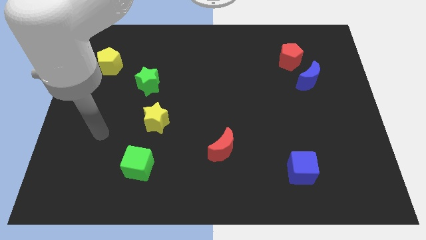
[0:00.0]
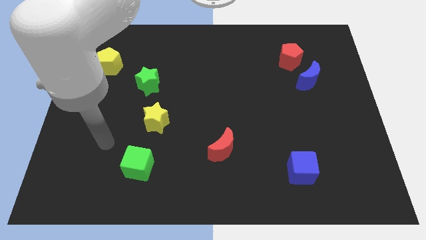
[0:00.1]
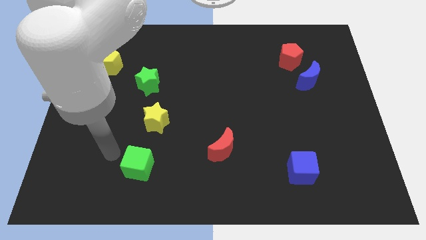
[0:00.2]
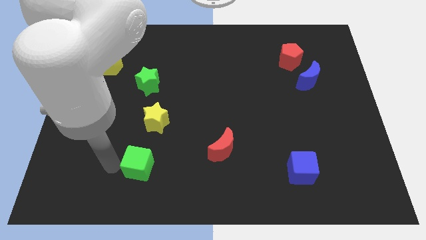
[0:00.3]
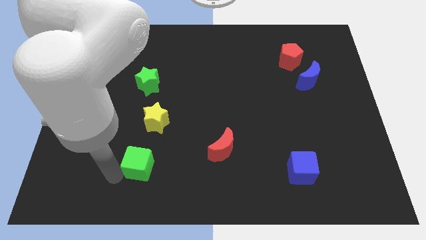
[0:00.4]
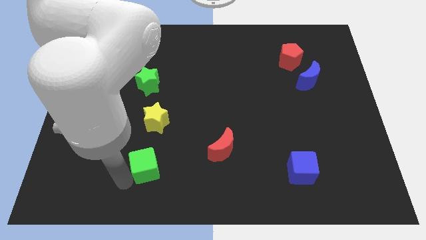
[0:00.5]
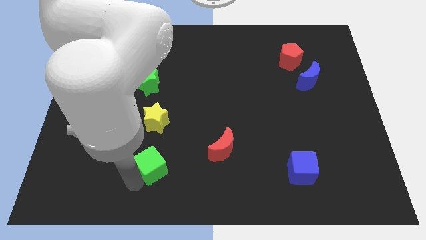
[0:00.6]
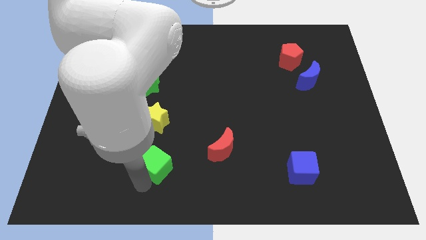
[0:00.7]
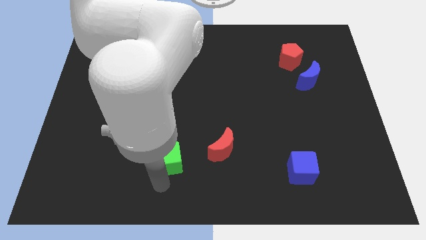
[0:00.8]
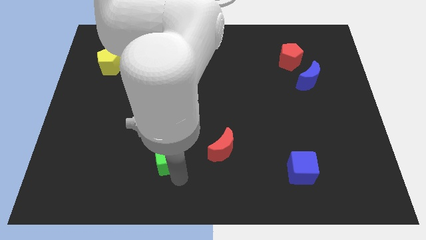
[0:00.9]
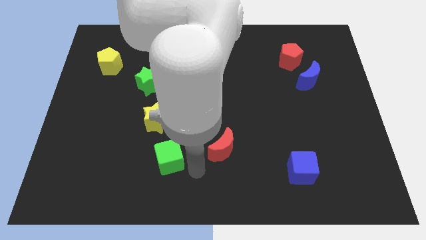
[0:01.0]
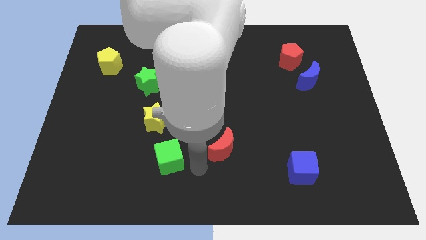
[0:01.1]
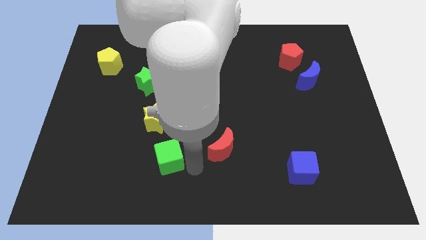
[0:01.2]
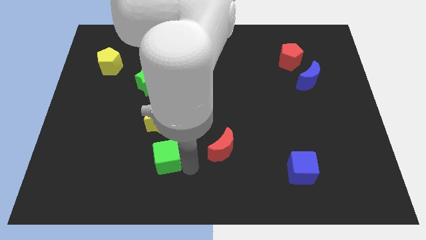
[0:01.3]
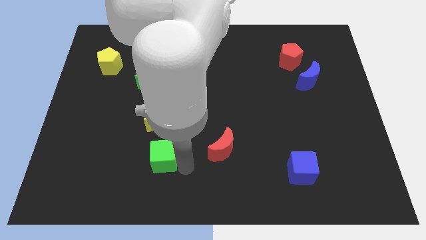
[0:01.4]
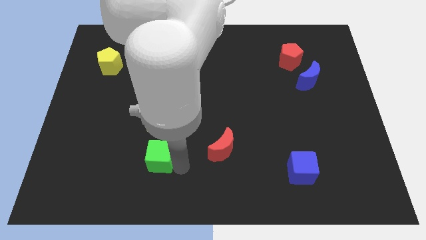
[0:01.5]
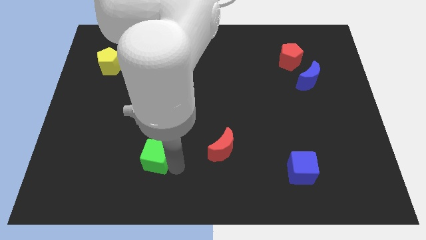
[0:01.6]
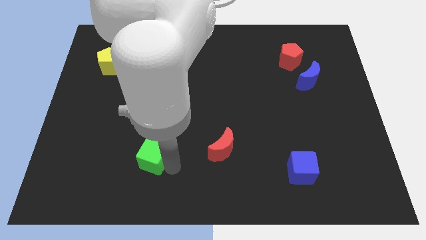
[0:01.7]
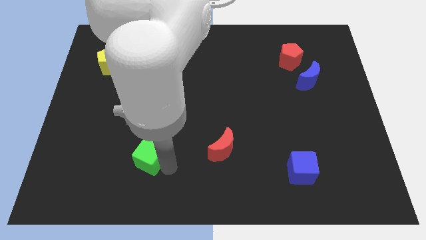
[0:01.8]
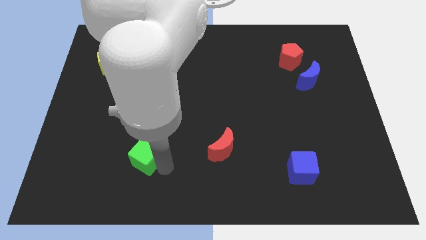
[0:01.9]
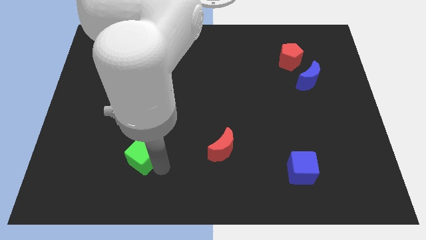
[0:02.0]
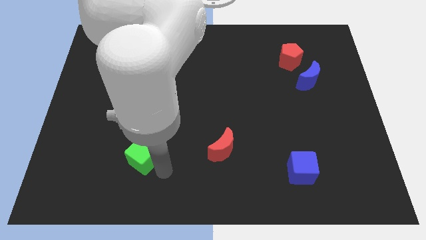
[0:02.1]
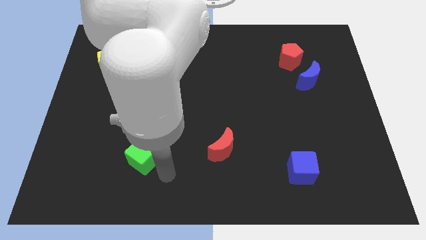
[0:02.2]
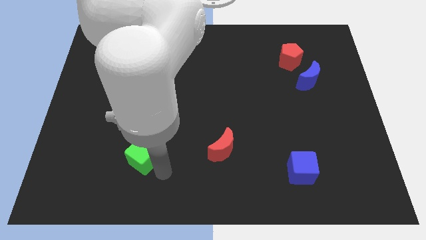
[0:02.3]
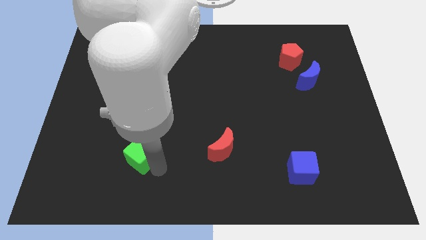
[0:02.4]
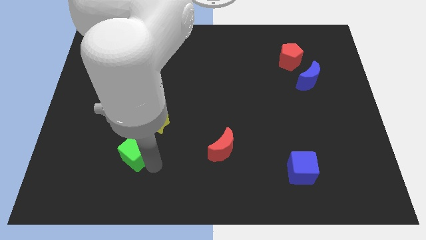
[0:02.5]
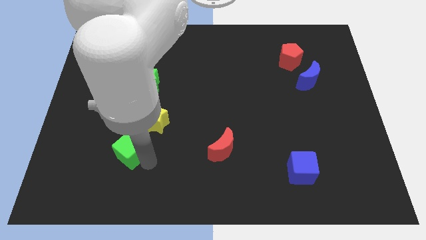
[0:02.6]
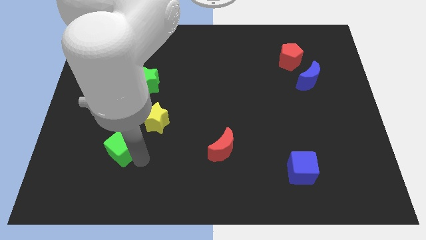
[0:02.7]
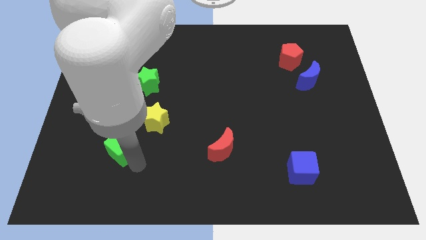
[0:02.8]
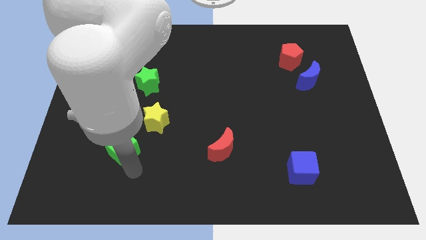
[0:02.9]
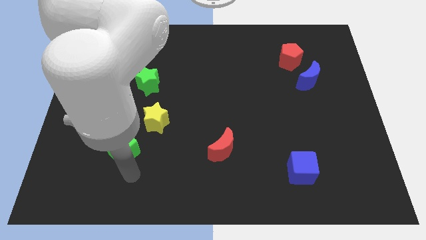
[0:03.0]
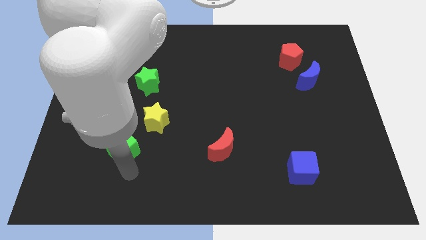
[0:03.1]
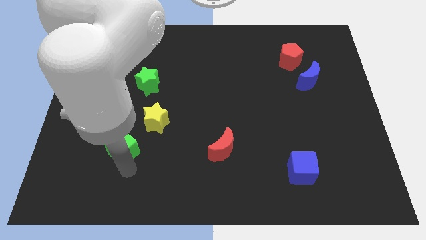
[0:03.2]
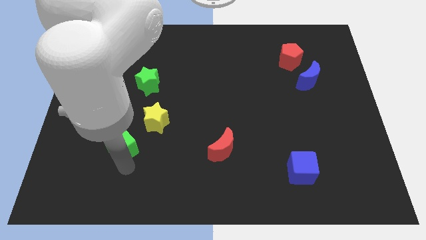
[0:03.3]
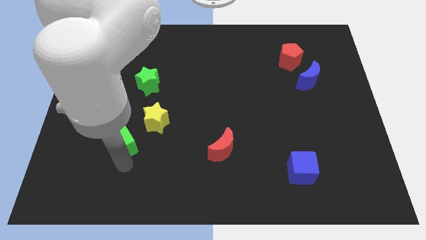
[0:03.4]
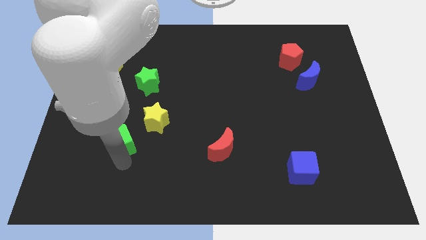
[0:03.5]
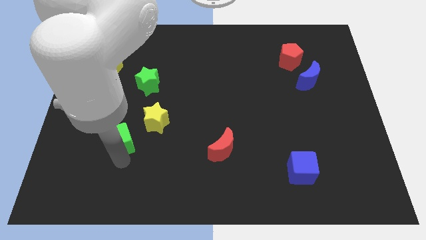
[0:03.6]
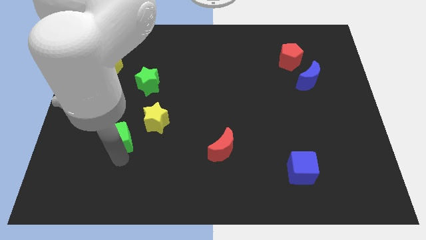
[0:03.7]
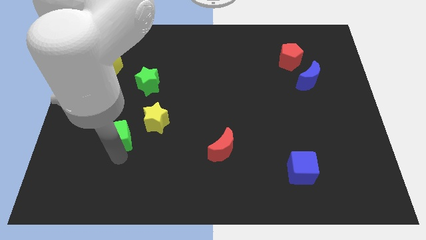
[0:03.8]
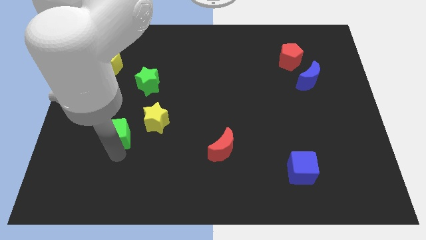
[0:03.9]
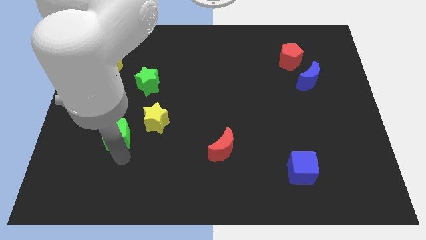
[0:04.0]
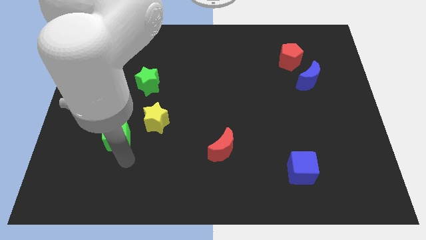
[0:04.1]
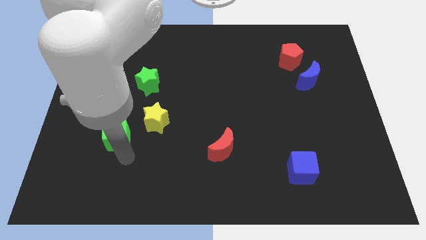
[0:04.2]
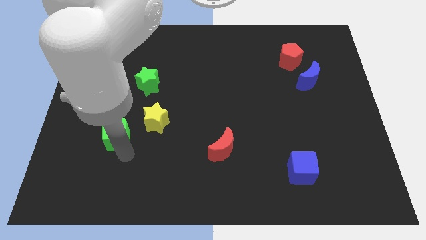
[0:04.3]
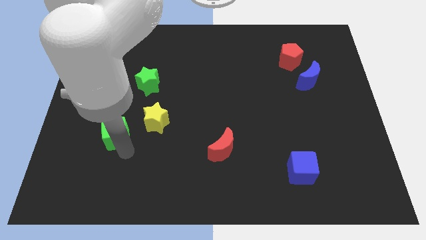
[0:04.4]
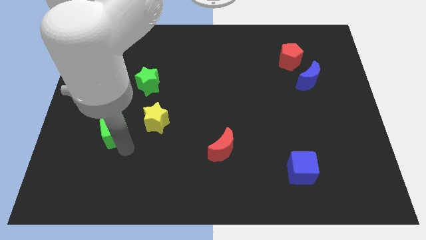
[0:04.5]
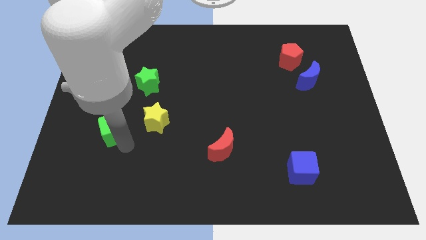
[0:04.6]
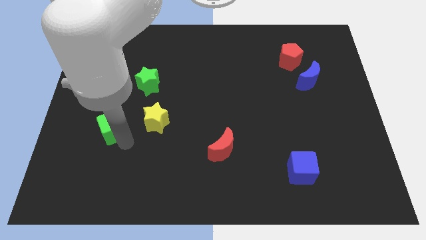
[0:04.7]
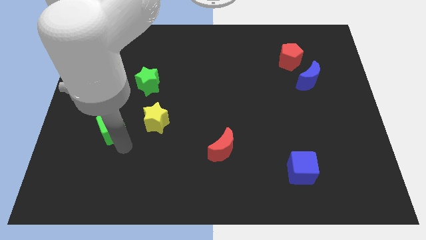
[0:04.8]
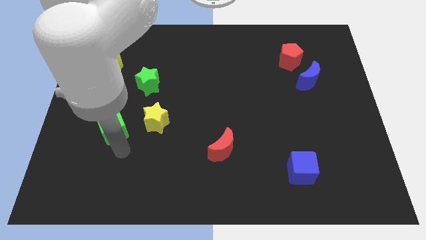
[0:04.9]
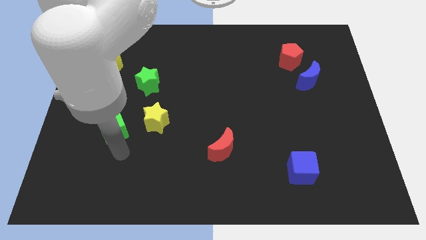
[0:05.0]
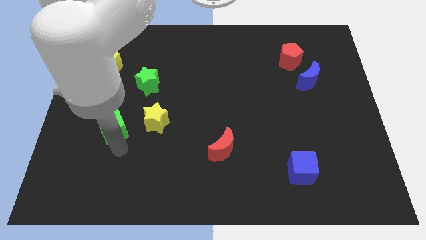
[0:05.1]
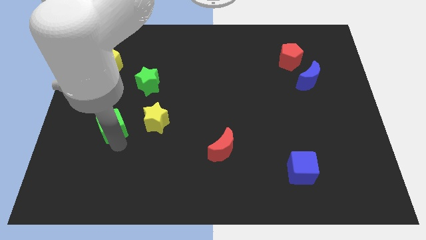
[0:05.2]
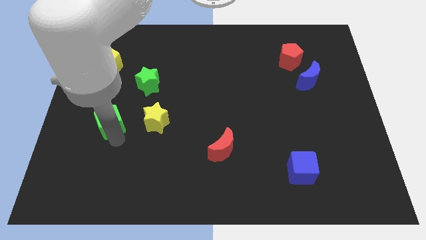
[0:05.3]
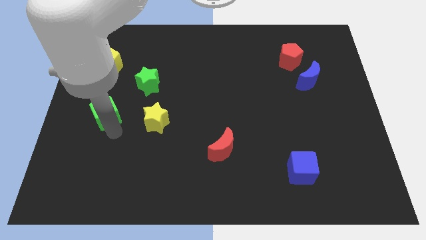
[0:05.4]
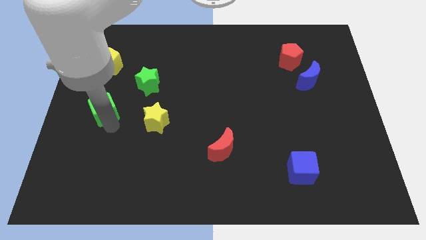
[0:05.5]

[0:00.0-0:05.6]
slide the green cube to the bottom of the yellow pentagon

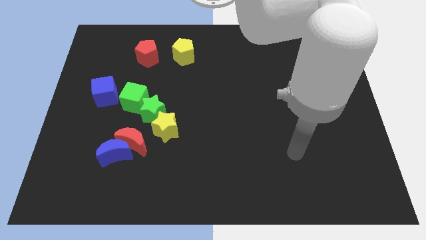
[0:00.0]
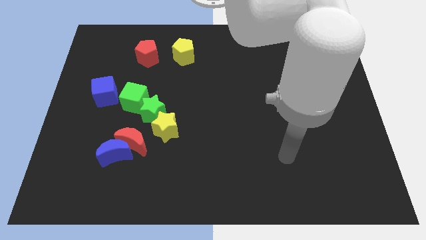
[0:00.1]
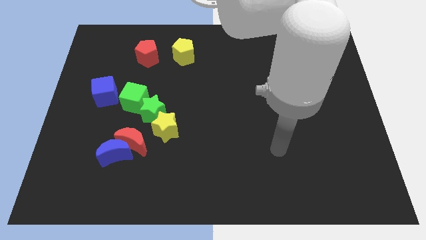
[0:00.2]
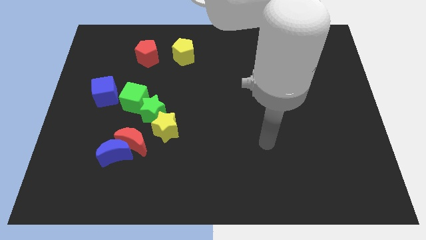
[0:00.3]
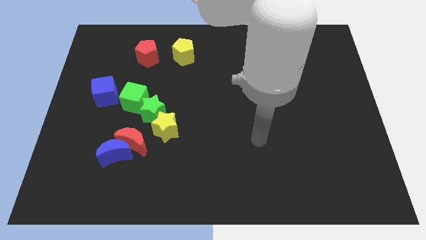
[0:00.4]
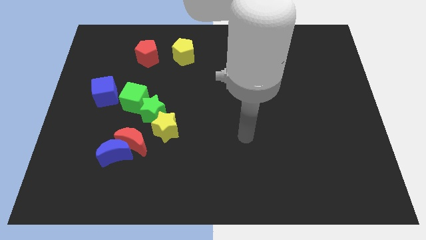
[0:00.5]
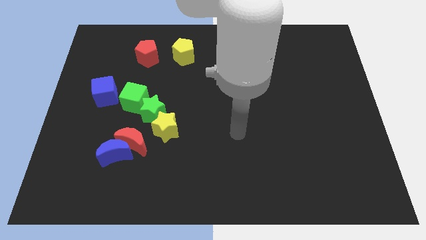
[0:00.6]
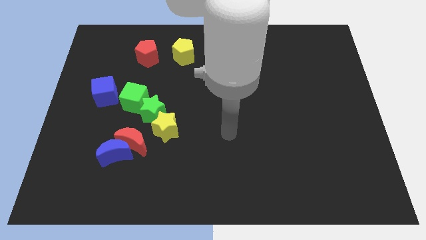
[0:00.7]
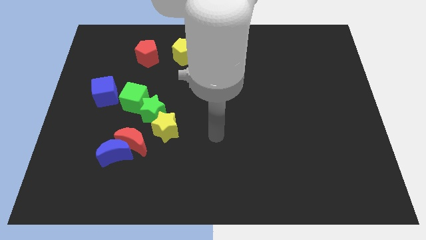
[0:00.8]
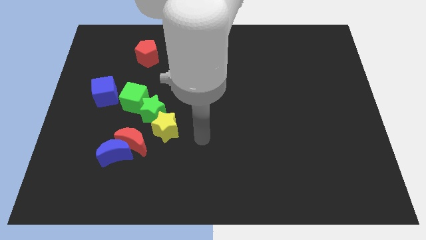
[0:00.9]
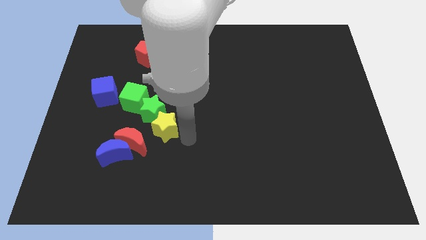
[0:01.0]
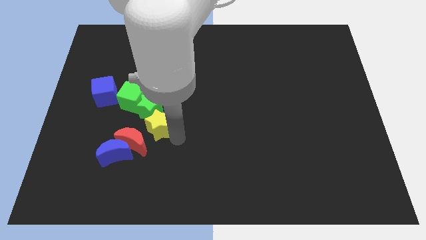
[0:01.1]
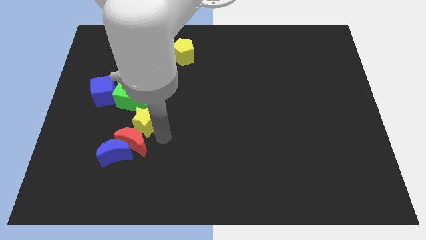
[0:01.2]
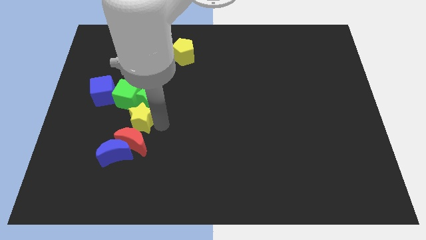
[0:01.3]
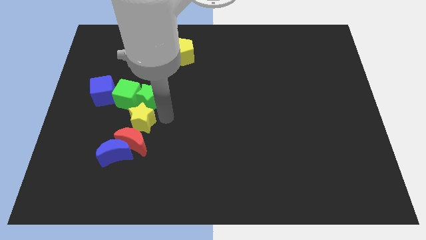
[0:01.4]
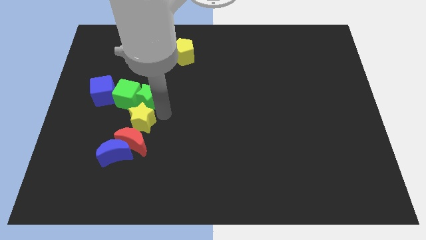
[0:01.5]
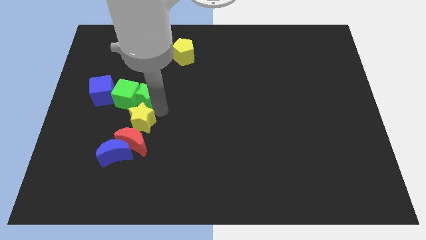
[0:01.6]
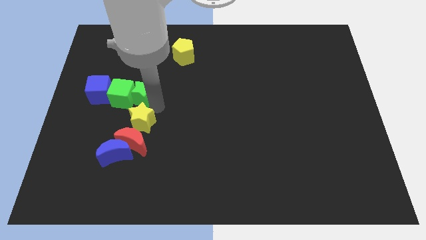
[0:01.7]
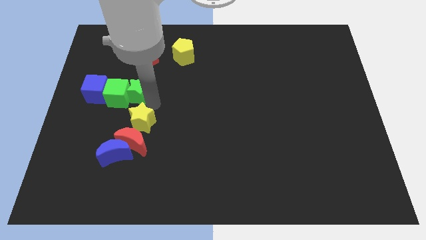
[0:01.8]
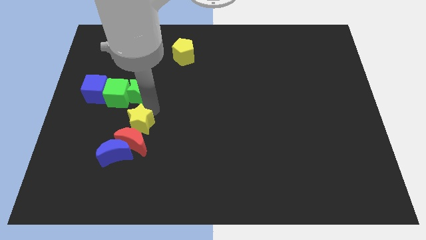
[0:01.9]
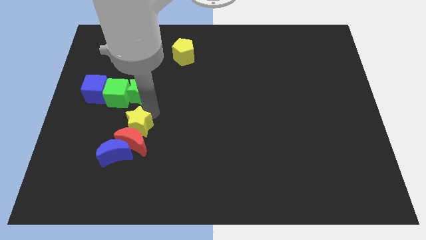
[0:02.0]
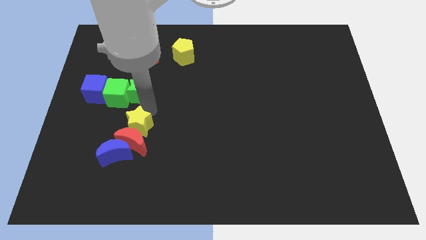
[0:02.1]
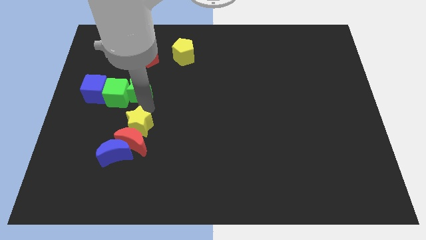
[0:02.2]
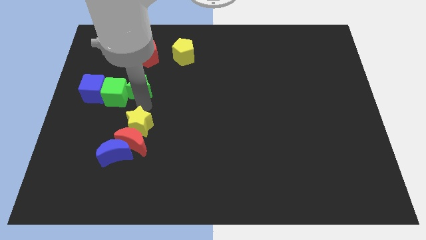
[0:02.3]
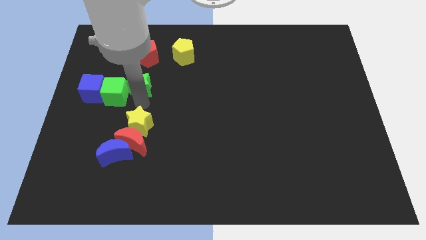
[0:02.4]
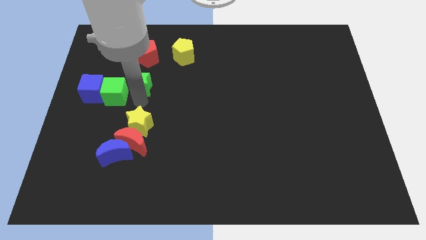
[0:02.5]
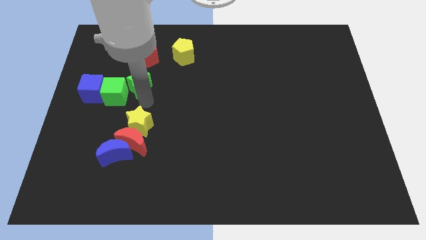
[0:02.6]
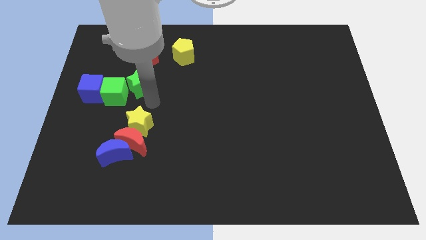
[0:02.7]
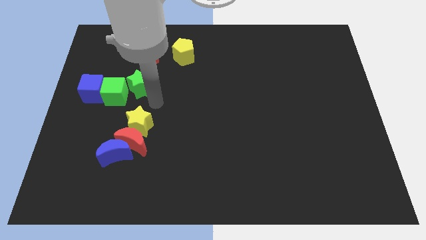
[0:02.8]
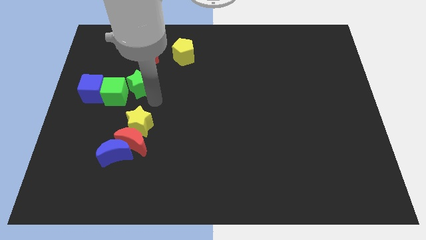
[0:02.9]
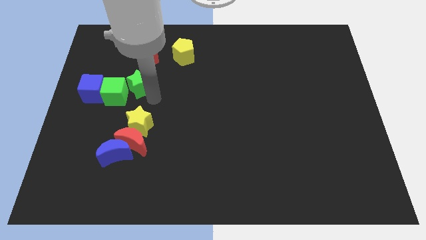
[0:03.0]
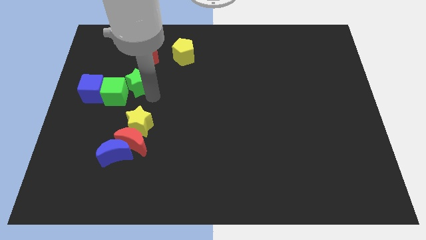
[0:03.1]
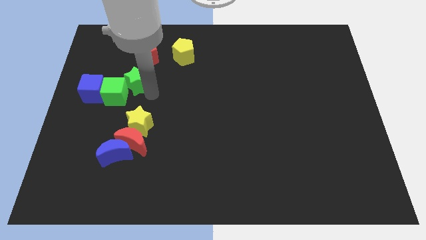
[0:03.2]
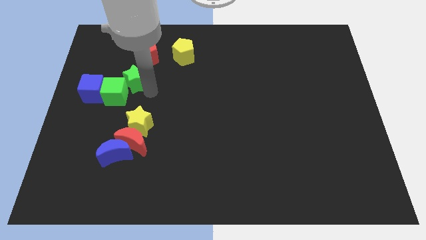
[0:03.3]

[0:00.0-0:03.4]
slide the green star to the bottom left of the red pentagon
